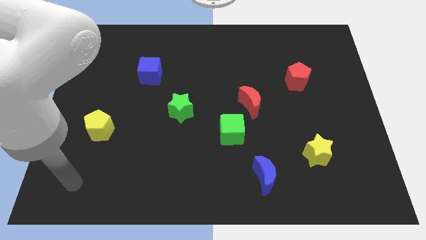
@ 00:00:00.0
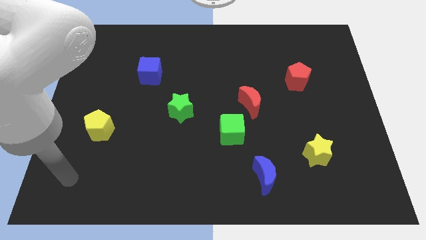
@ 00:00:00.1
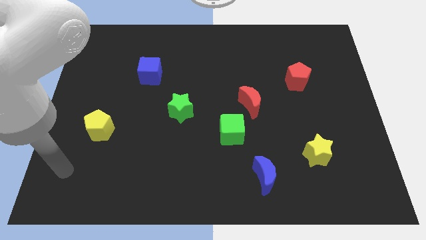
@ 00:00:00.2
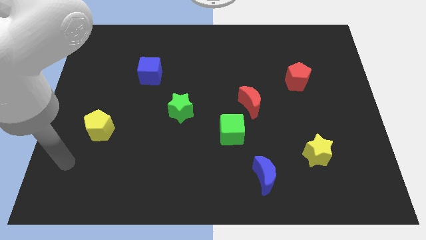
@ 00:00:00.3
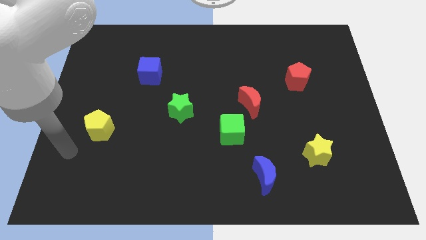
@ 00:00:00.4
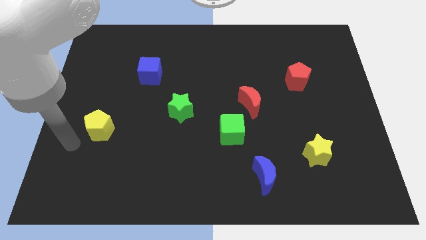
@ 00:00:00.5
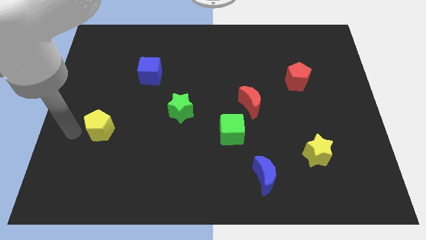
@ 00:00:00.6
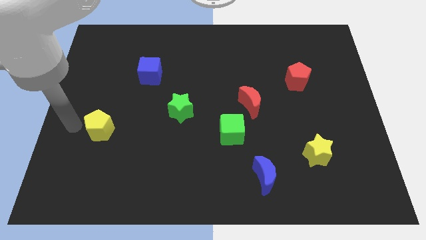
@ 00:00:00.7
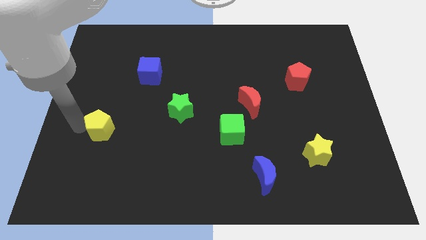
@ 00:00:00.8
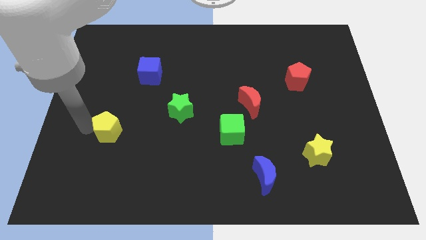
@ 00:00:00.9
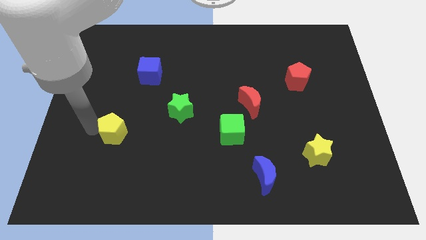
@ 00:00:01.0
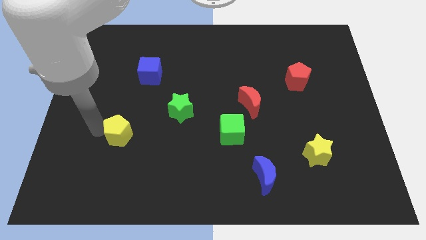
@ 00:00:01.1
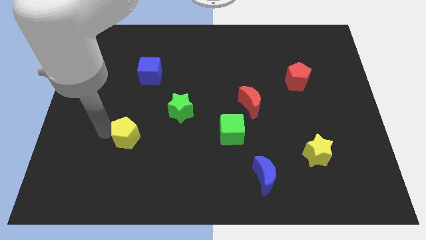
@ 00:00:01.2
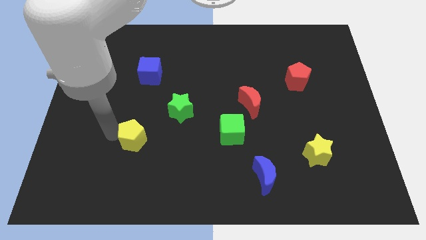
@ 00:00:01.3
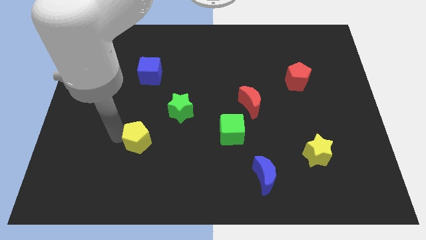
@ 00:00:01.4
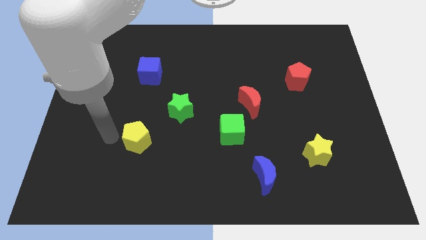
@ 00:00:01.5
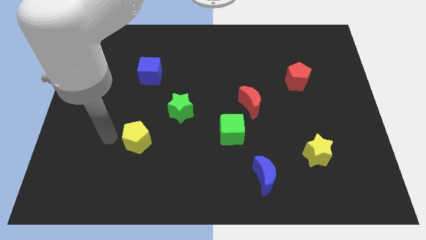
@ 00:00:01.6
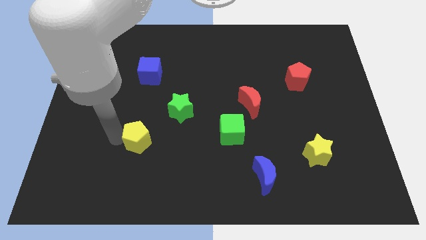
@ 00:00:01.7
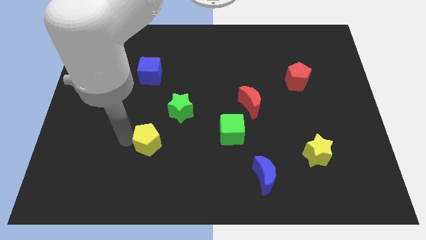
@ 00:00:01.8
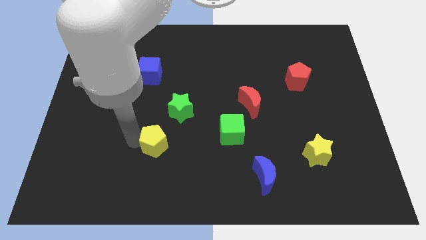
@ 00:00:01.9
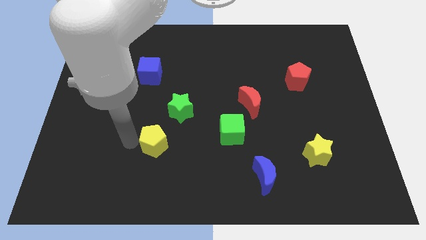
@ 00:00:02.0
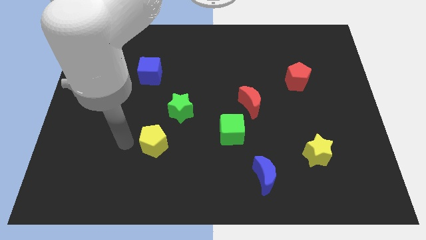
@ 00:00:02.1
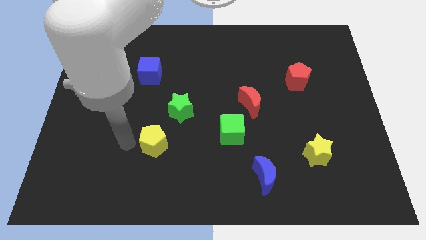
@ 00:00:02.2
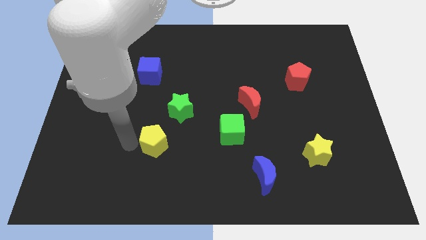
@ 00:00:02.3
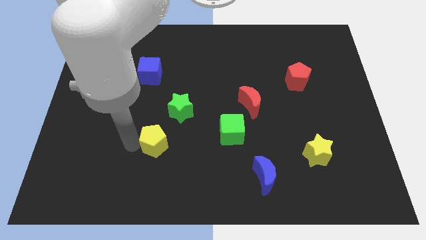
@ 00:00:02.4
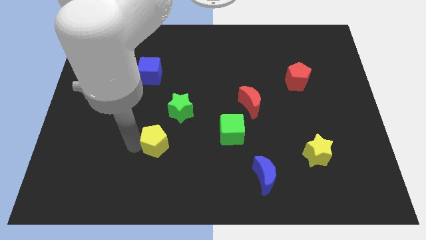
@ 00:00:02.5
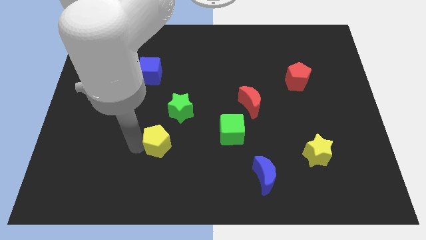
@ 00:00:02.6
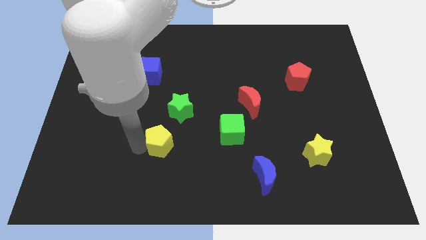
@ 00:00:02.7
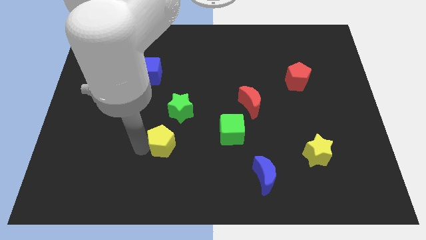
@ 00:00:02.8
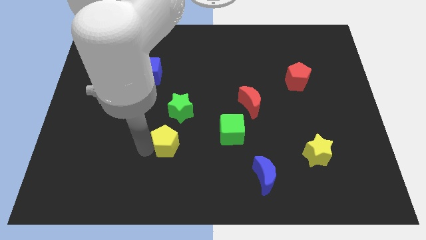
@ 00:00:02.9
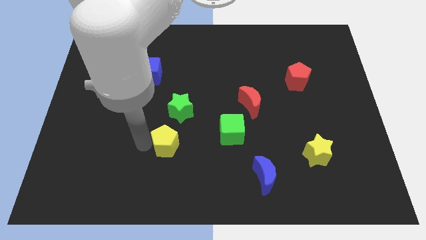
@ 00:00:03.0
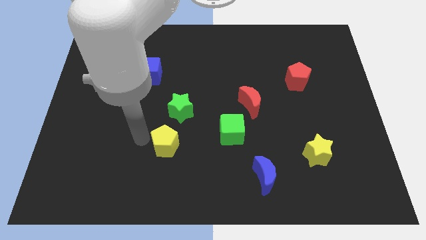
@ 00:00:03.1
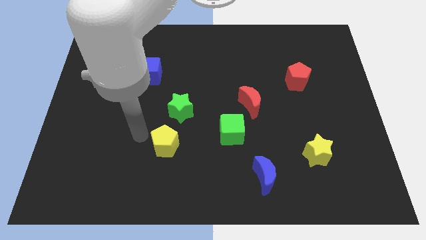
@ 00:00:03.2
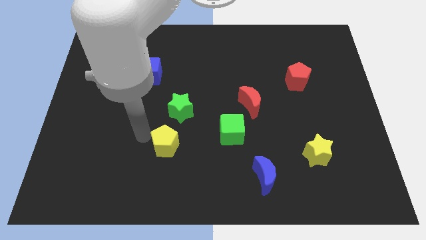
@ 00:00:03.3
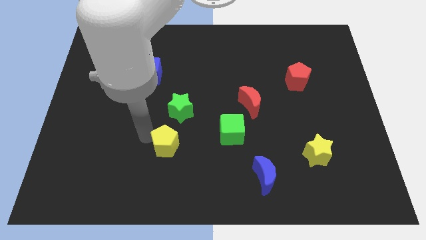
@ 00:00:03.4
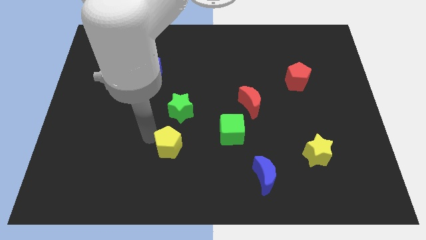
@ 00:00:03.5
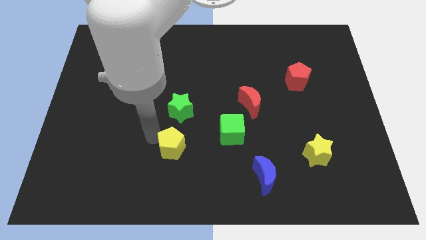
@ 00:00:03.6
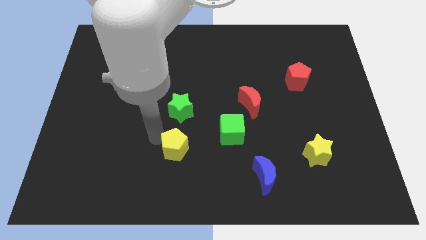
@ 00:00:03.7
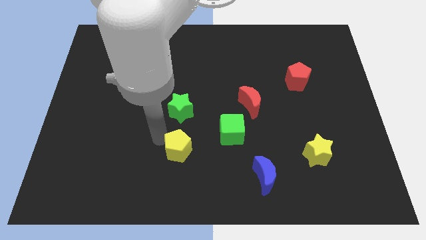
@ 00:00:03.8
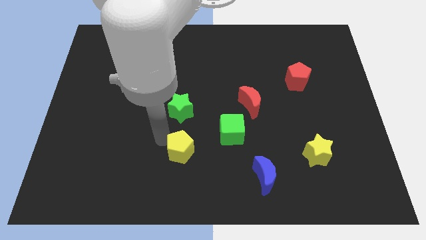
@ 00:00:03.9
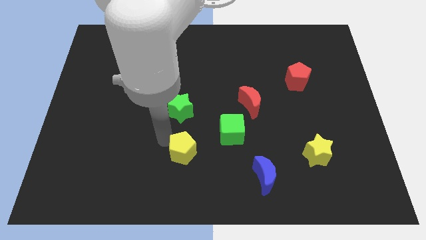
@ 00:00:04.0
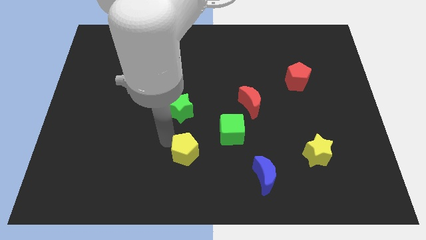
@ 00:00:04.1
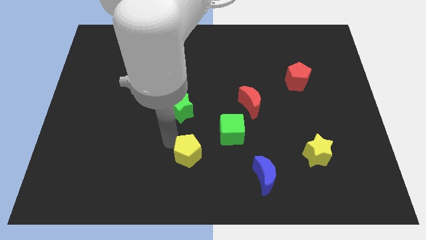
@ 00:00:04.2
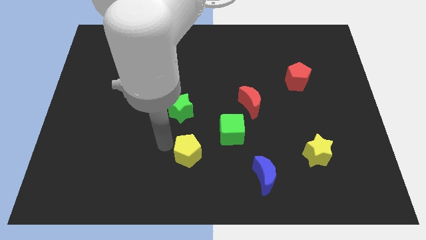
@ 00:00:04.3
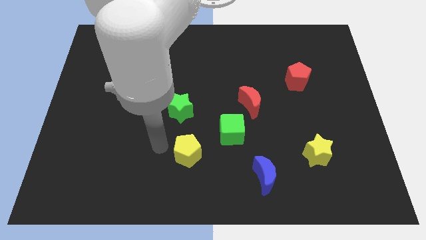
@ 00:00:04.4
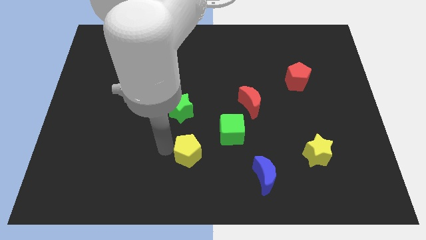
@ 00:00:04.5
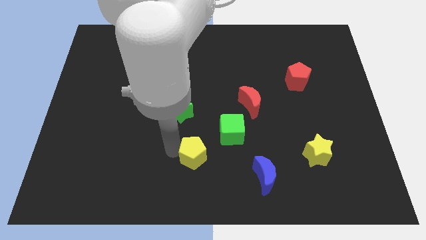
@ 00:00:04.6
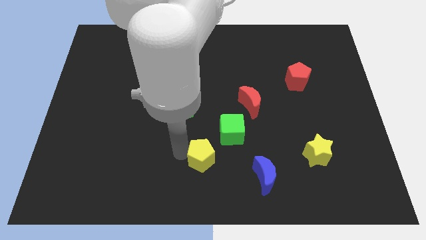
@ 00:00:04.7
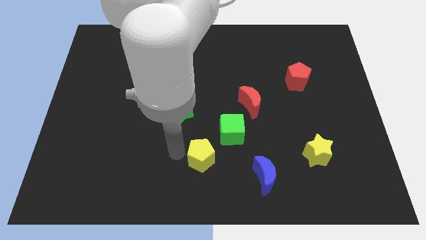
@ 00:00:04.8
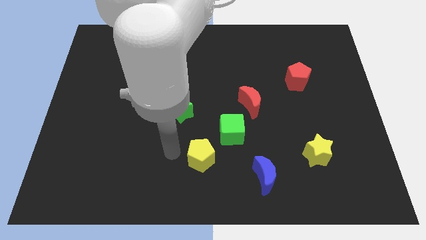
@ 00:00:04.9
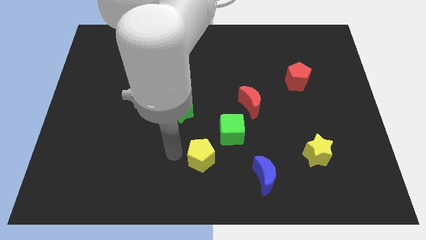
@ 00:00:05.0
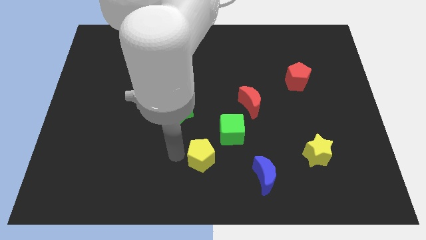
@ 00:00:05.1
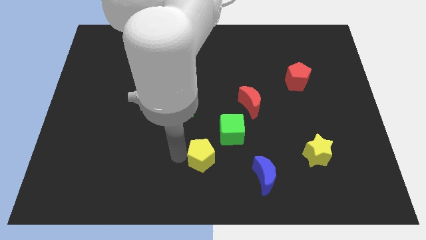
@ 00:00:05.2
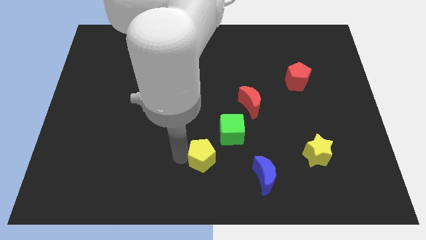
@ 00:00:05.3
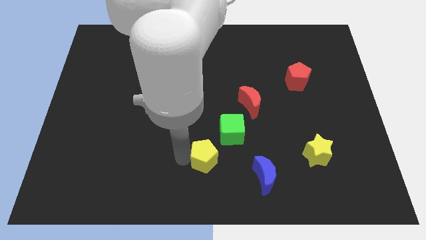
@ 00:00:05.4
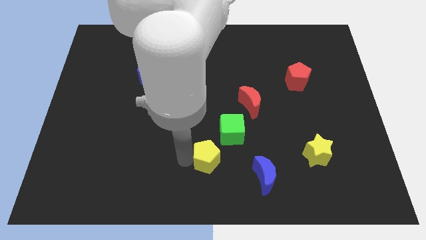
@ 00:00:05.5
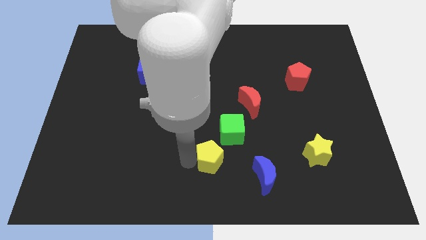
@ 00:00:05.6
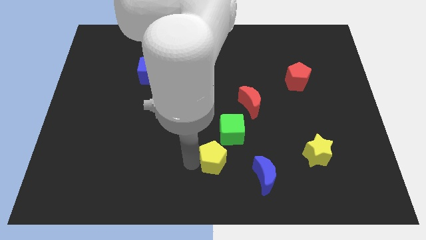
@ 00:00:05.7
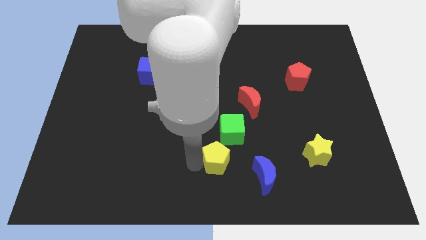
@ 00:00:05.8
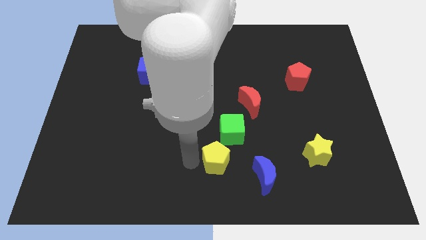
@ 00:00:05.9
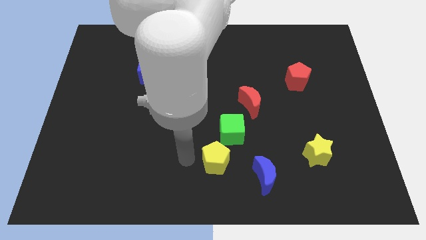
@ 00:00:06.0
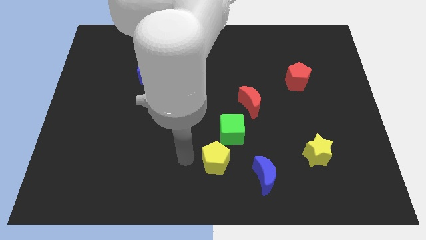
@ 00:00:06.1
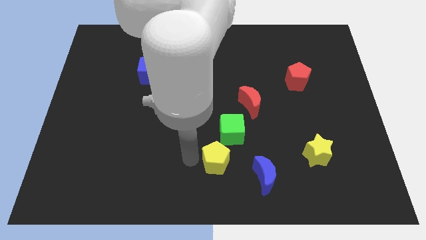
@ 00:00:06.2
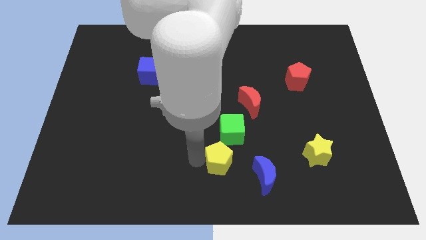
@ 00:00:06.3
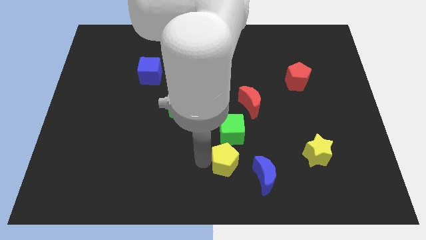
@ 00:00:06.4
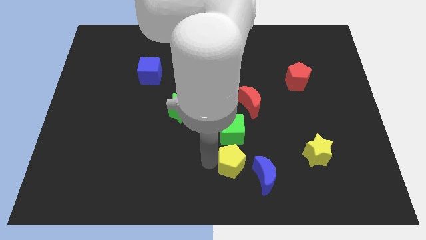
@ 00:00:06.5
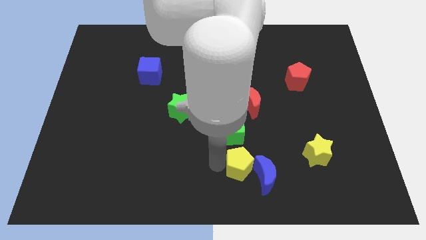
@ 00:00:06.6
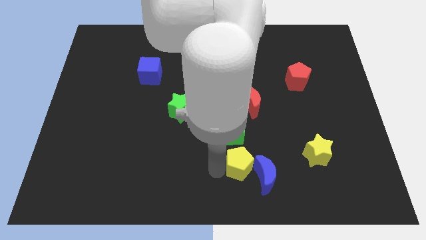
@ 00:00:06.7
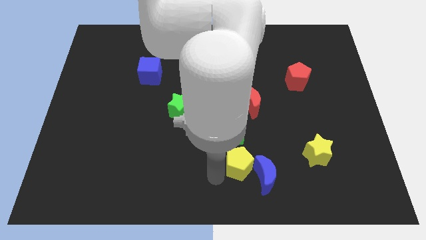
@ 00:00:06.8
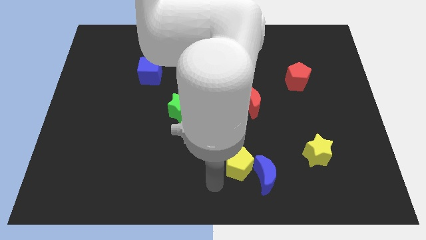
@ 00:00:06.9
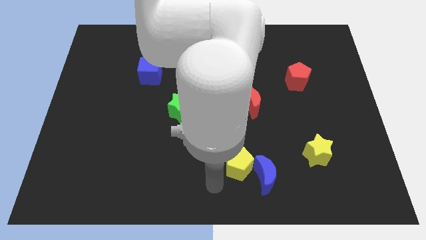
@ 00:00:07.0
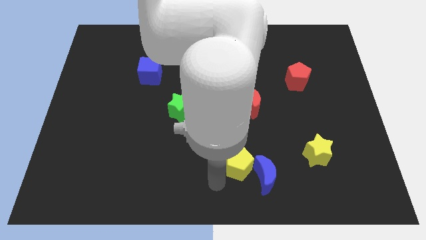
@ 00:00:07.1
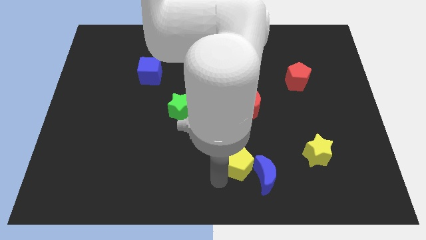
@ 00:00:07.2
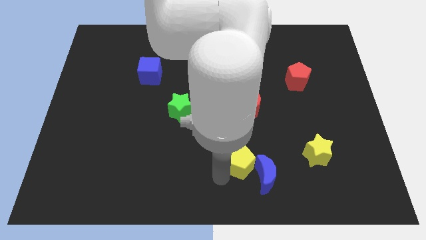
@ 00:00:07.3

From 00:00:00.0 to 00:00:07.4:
move the yellow pentagon to the bottom right side of the green cube
